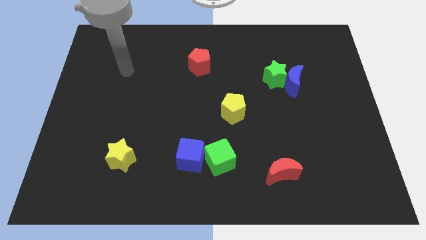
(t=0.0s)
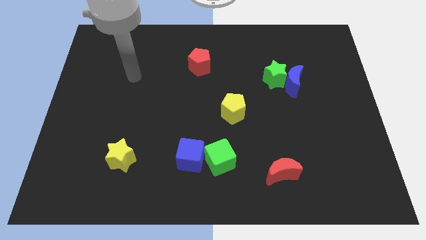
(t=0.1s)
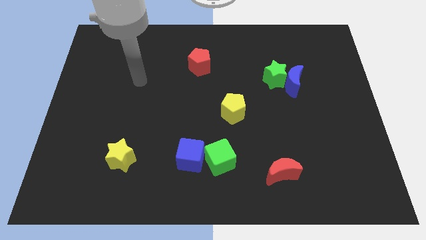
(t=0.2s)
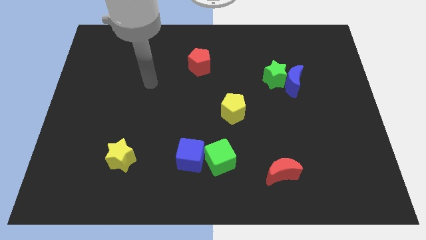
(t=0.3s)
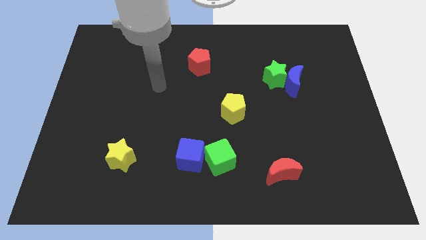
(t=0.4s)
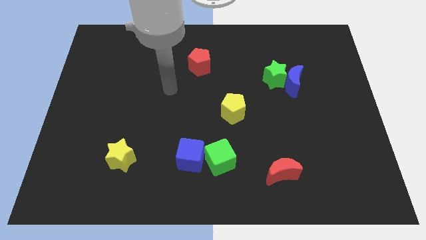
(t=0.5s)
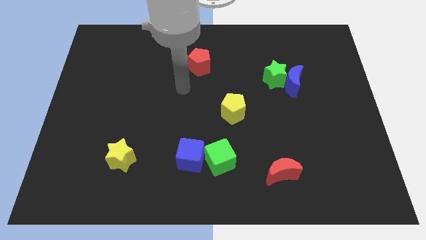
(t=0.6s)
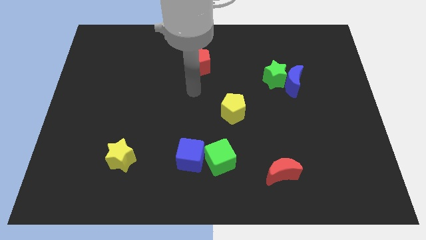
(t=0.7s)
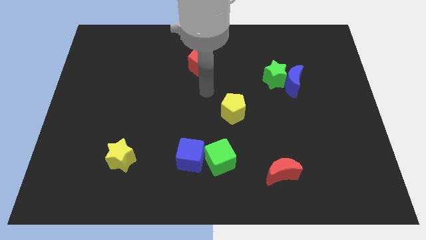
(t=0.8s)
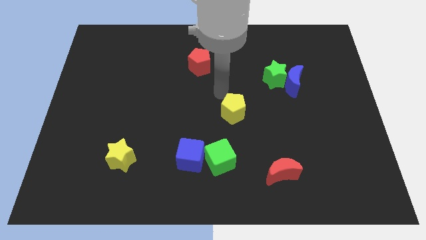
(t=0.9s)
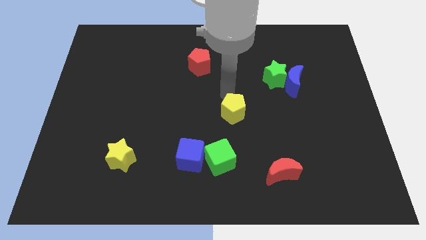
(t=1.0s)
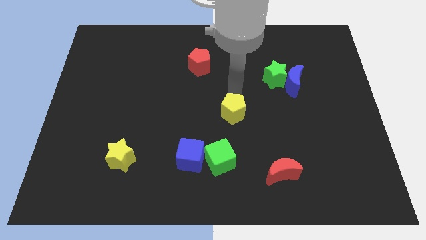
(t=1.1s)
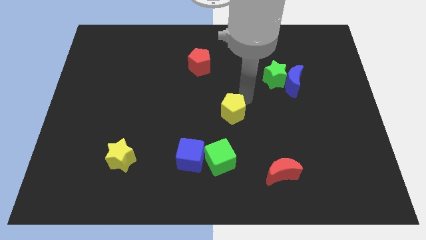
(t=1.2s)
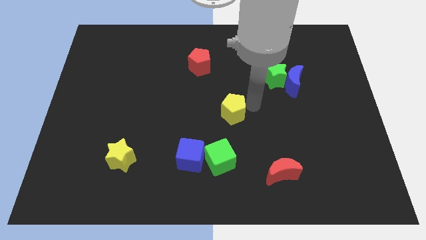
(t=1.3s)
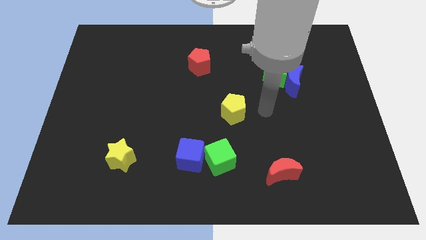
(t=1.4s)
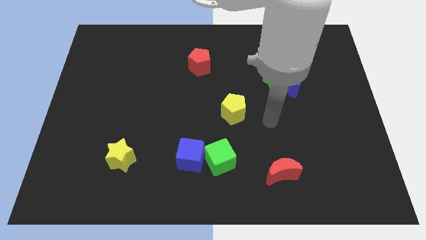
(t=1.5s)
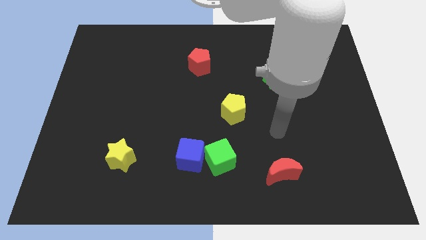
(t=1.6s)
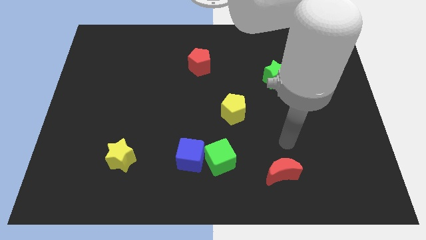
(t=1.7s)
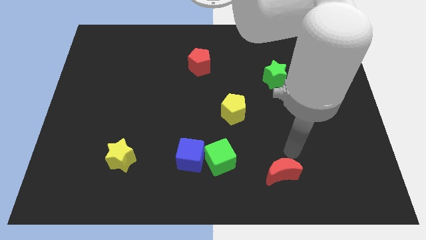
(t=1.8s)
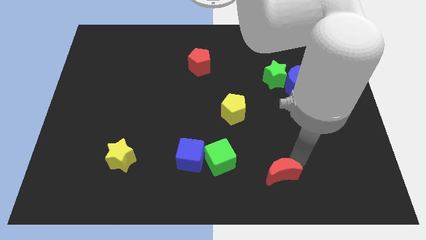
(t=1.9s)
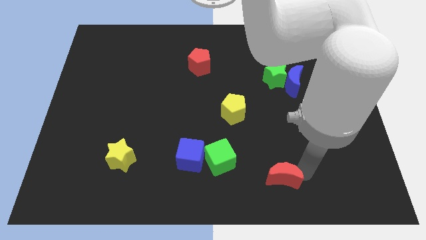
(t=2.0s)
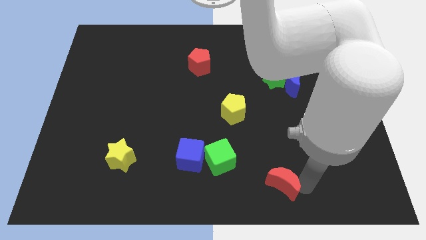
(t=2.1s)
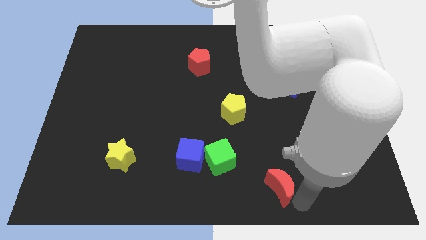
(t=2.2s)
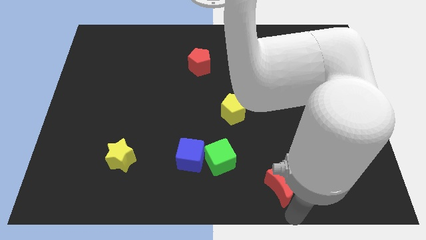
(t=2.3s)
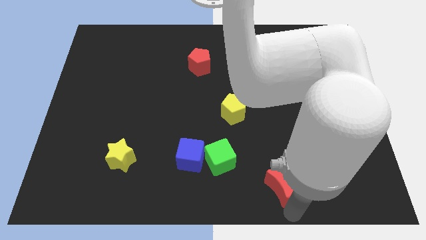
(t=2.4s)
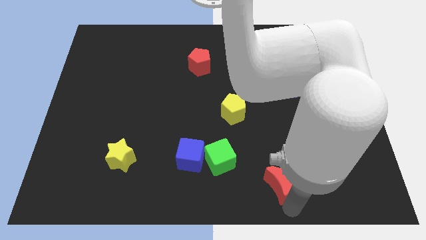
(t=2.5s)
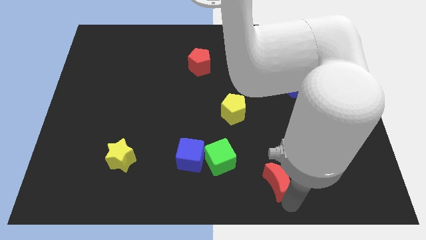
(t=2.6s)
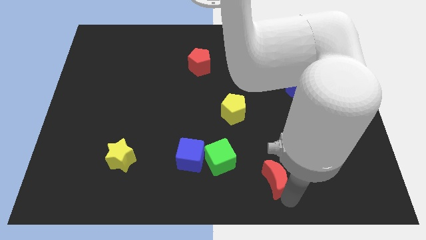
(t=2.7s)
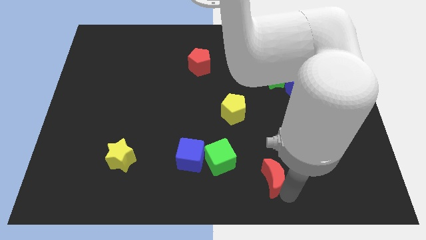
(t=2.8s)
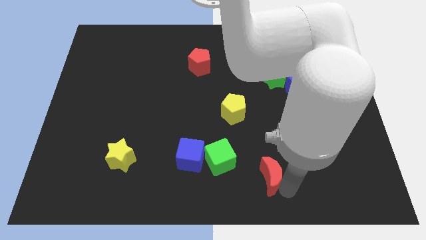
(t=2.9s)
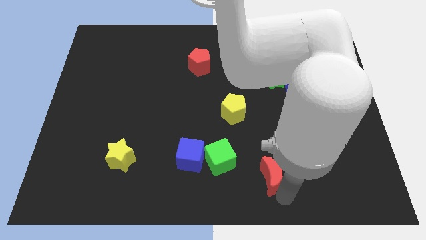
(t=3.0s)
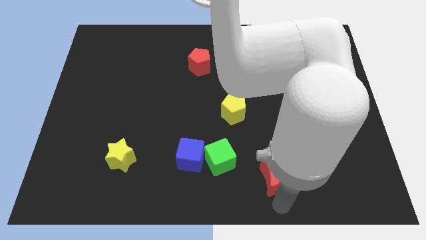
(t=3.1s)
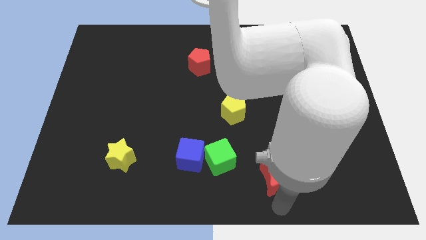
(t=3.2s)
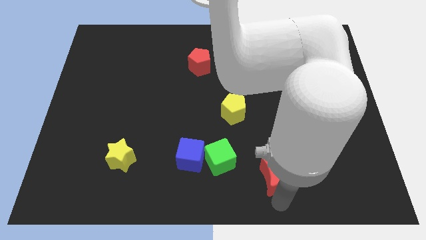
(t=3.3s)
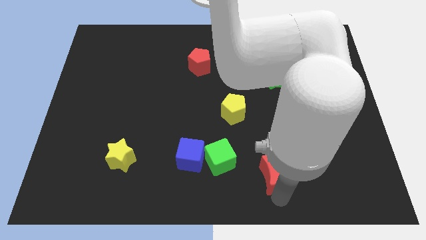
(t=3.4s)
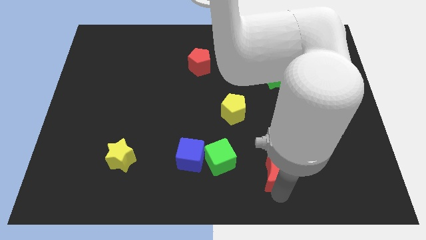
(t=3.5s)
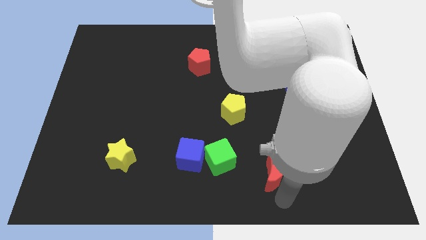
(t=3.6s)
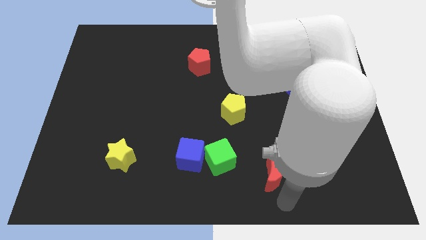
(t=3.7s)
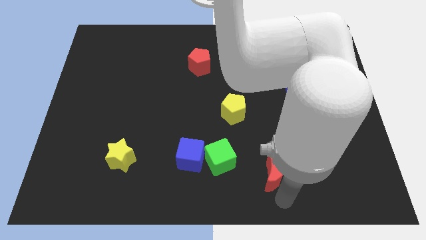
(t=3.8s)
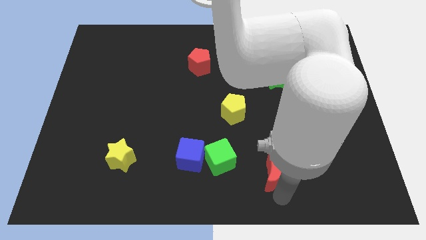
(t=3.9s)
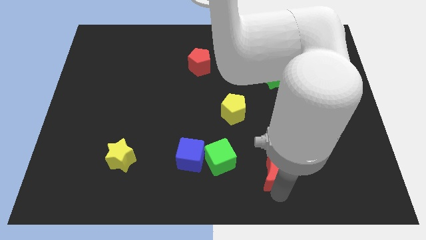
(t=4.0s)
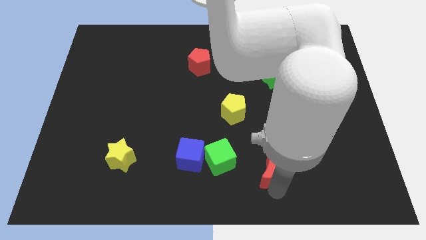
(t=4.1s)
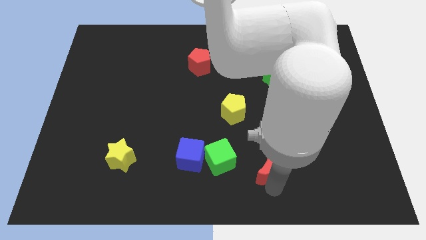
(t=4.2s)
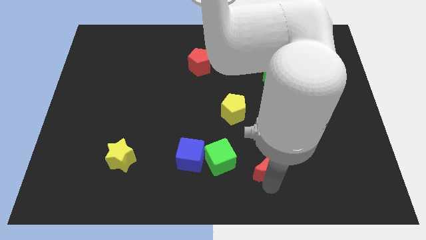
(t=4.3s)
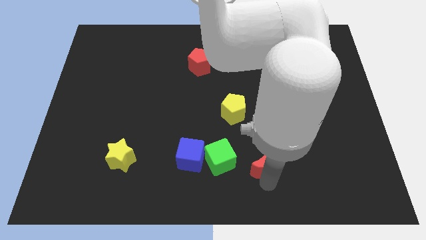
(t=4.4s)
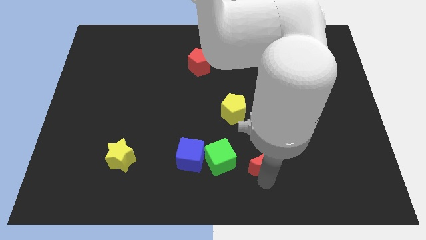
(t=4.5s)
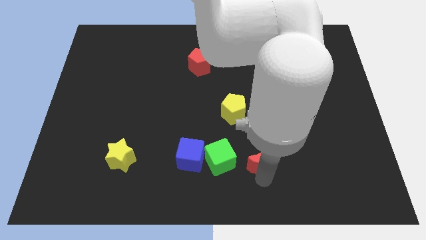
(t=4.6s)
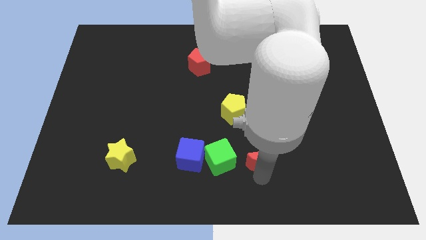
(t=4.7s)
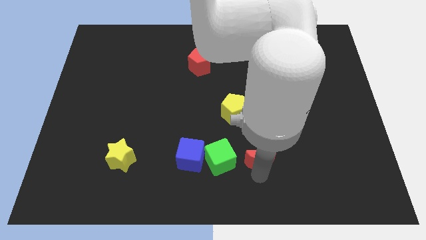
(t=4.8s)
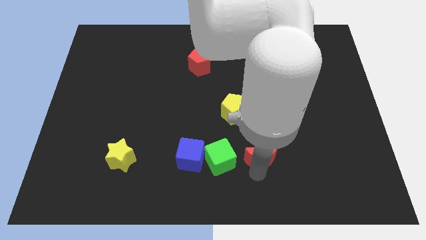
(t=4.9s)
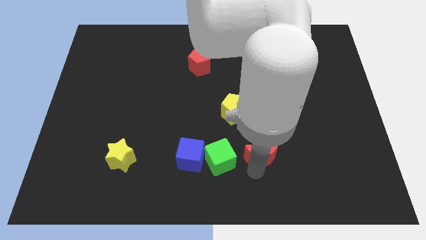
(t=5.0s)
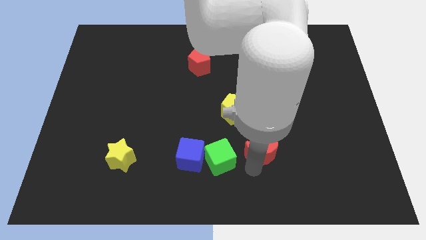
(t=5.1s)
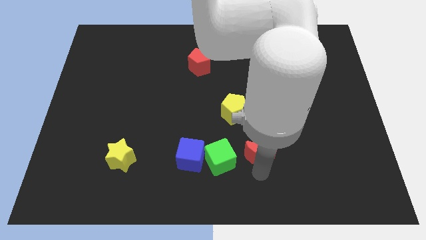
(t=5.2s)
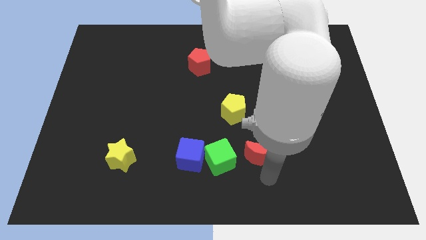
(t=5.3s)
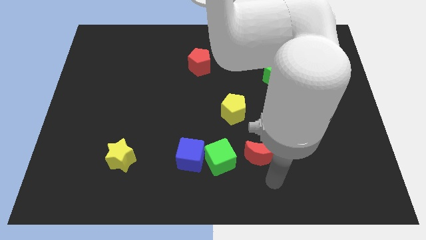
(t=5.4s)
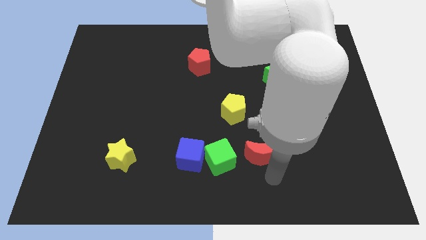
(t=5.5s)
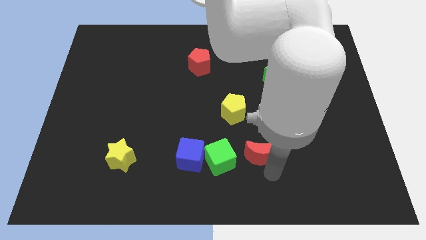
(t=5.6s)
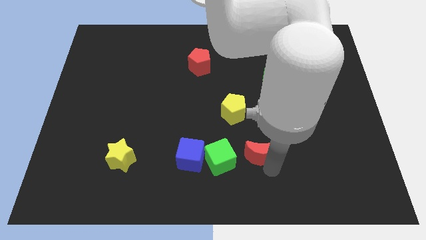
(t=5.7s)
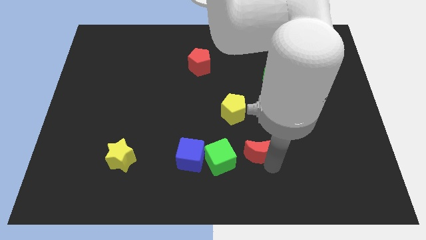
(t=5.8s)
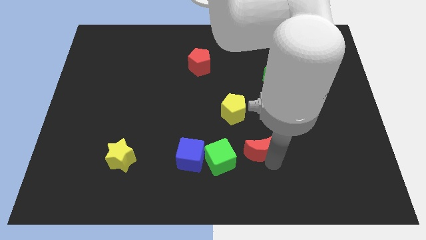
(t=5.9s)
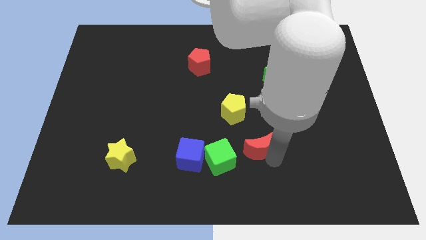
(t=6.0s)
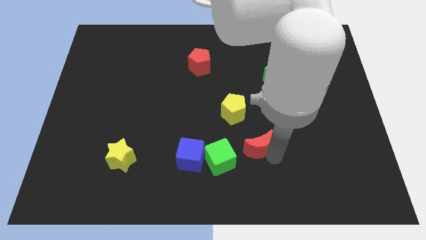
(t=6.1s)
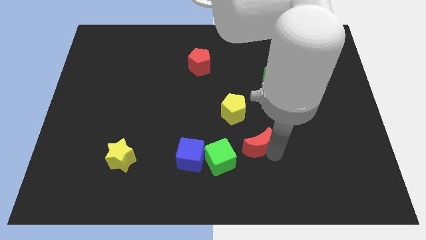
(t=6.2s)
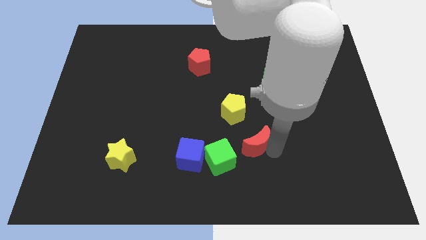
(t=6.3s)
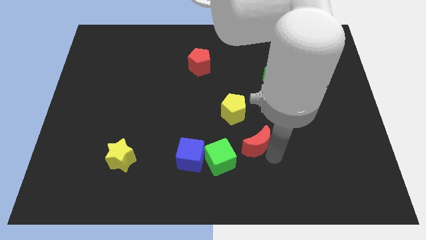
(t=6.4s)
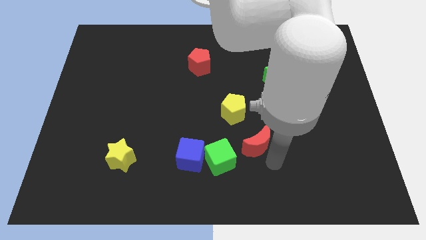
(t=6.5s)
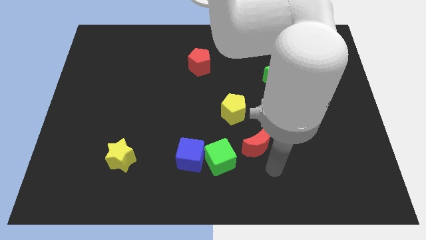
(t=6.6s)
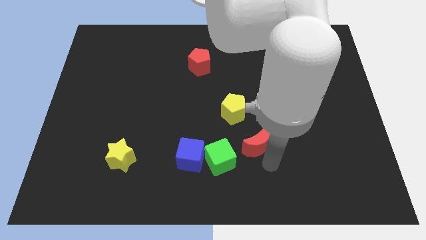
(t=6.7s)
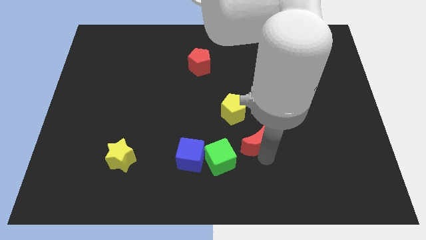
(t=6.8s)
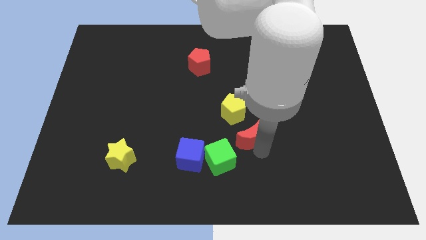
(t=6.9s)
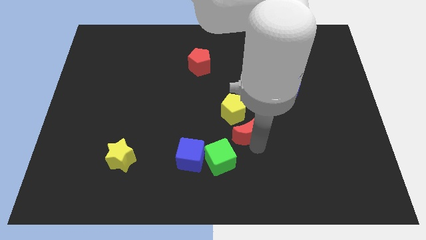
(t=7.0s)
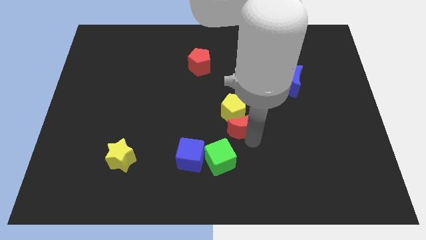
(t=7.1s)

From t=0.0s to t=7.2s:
push the red moon close to the yellow pentagon
